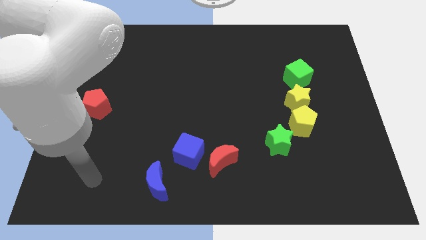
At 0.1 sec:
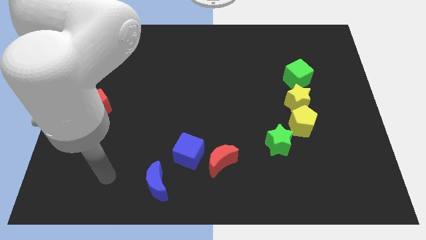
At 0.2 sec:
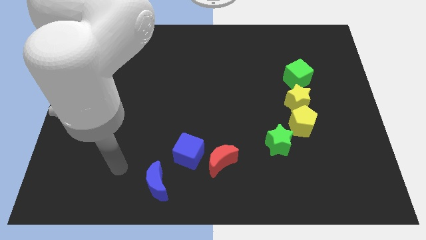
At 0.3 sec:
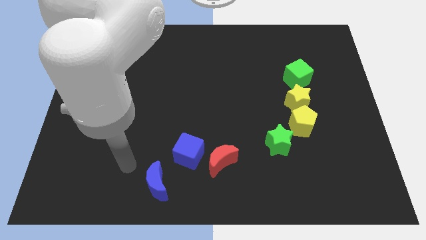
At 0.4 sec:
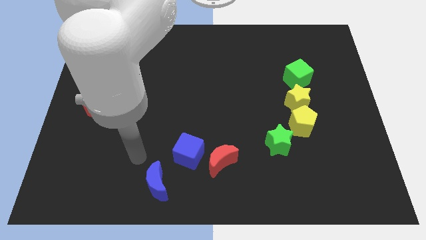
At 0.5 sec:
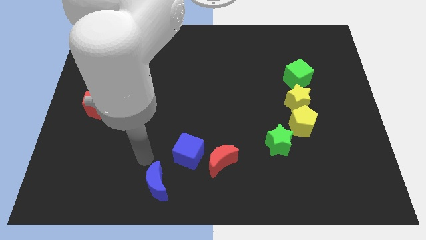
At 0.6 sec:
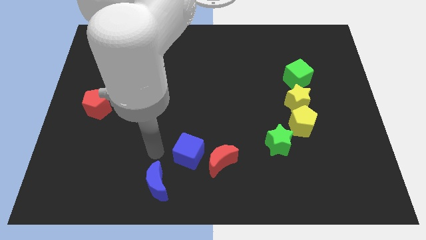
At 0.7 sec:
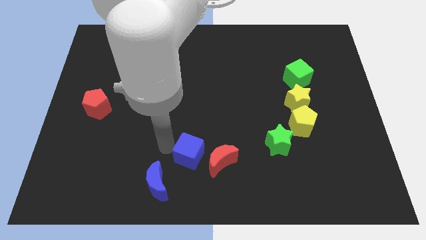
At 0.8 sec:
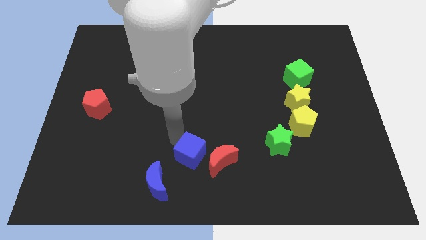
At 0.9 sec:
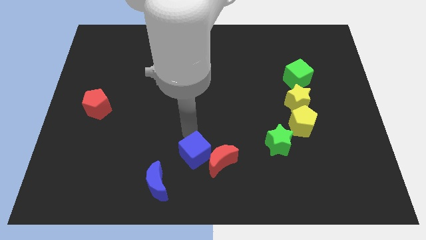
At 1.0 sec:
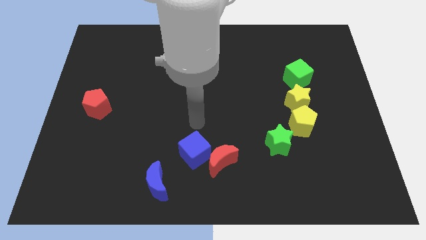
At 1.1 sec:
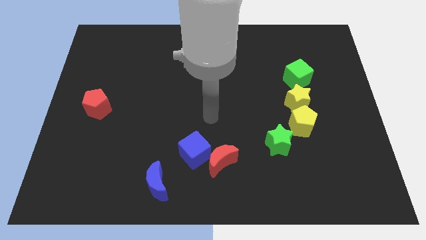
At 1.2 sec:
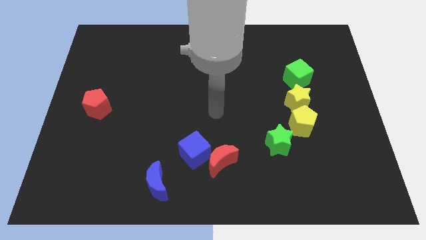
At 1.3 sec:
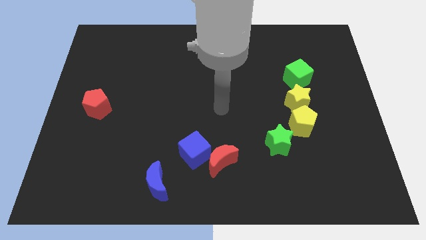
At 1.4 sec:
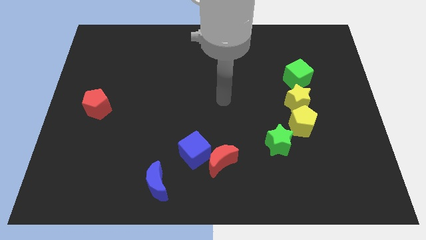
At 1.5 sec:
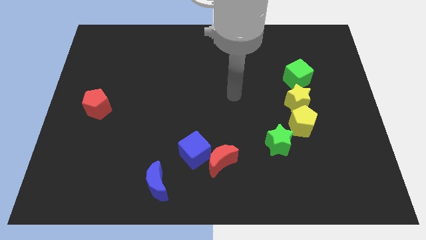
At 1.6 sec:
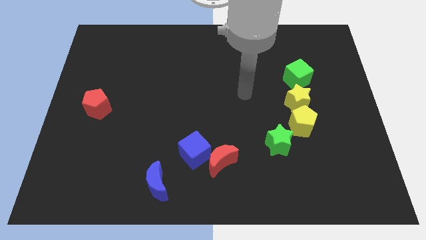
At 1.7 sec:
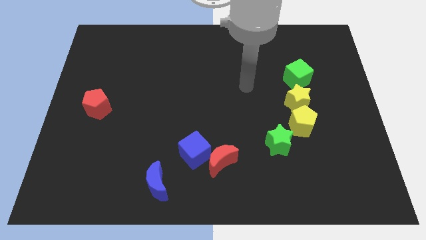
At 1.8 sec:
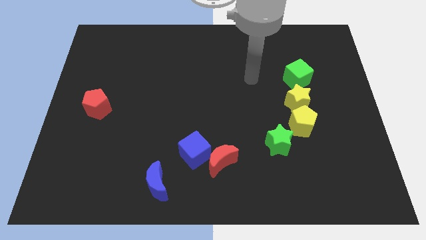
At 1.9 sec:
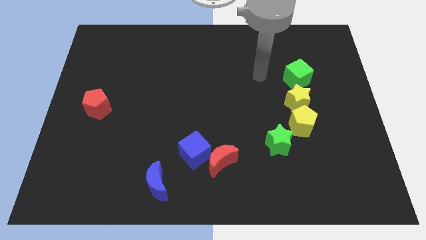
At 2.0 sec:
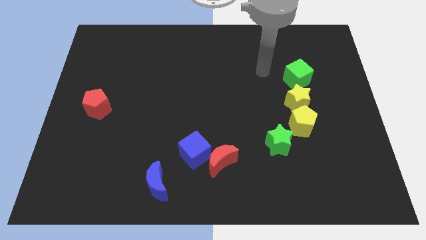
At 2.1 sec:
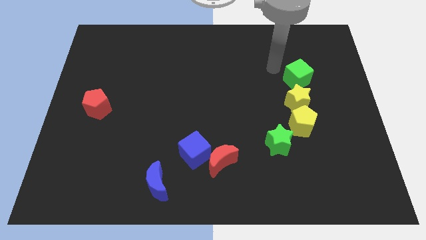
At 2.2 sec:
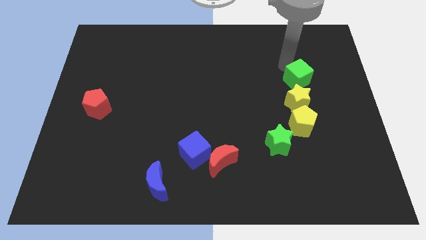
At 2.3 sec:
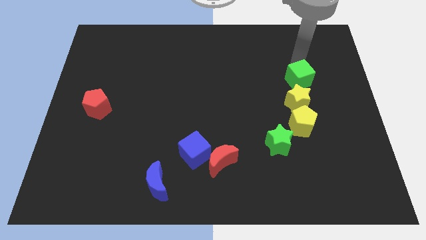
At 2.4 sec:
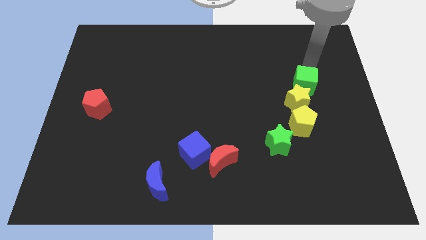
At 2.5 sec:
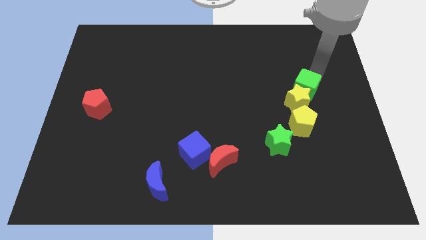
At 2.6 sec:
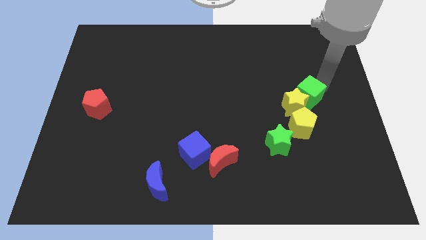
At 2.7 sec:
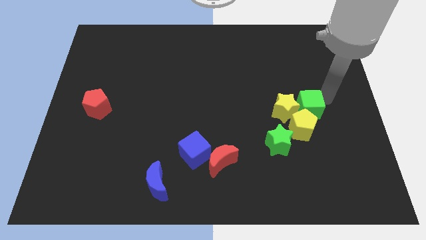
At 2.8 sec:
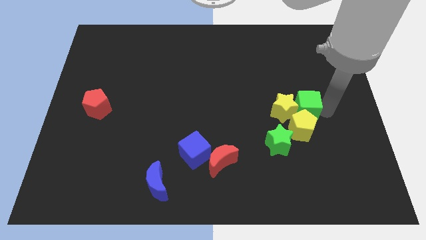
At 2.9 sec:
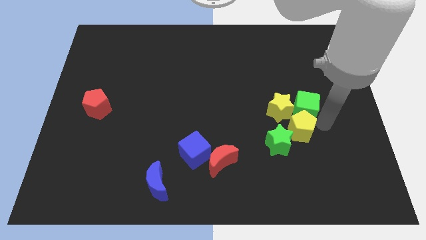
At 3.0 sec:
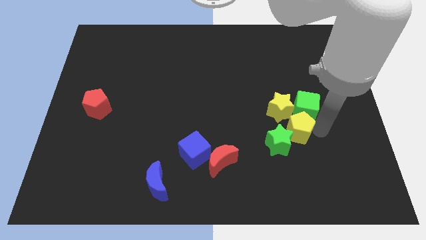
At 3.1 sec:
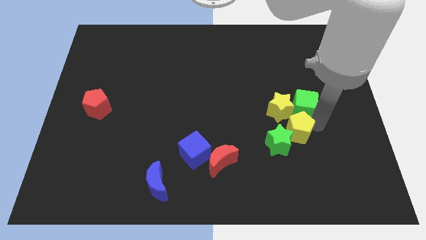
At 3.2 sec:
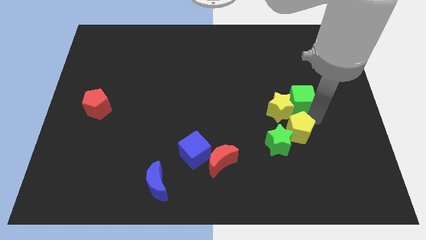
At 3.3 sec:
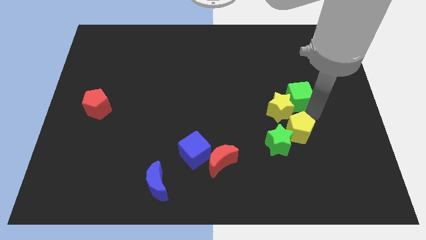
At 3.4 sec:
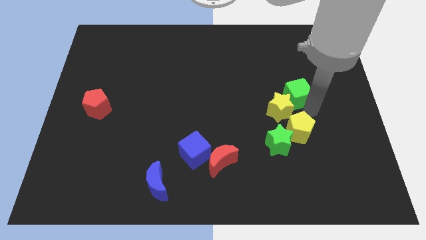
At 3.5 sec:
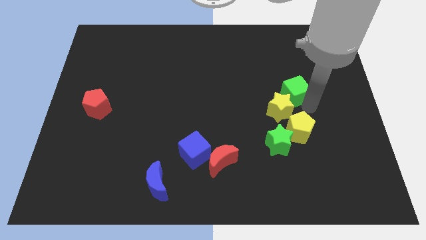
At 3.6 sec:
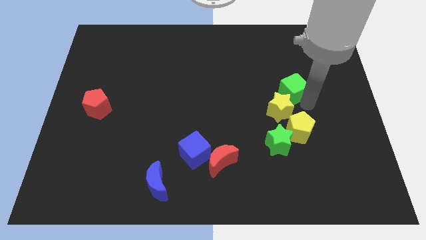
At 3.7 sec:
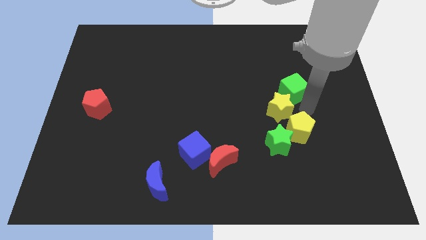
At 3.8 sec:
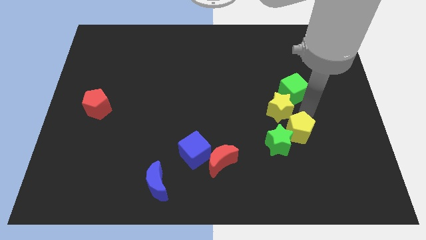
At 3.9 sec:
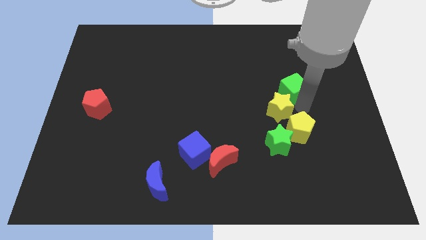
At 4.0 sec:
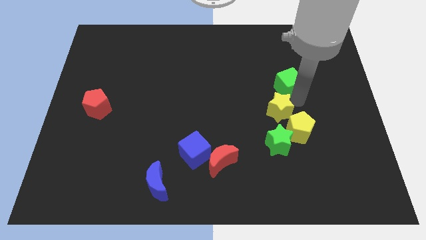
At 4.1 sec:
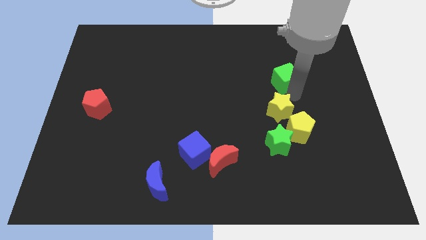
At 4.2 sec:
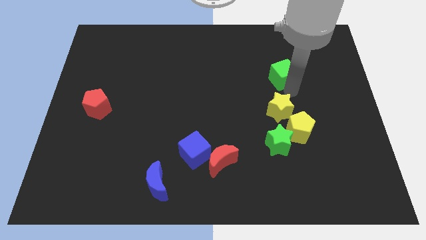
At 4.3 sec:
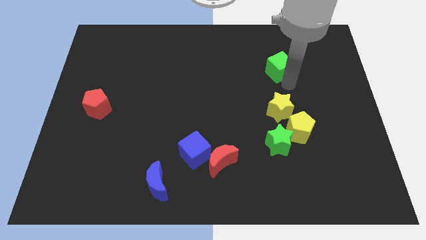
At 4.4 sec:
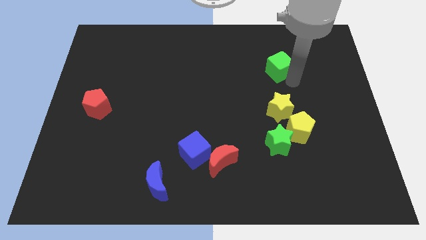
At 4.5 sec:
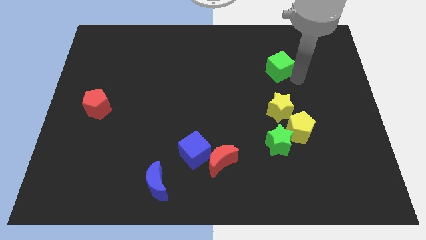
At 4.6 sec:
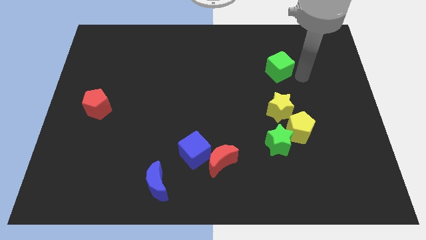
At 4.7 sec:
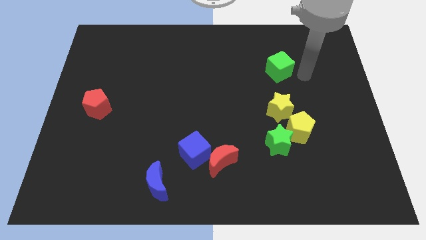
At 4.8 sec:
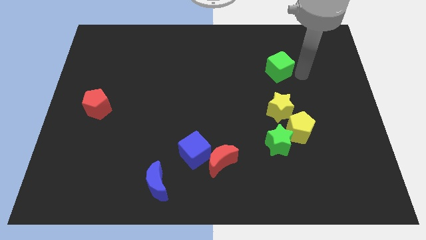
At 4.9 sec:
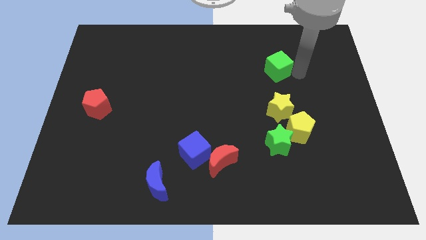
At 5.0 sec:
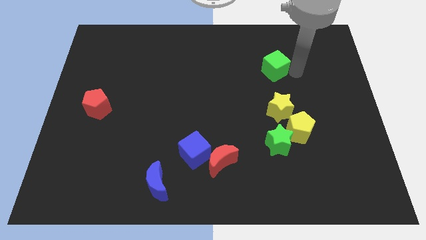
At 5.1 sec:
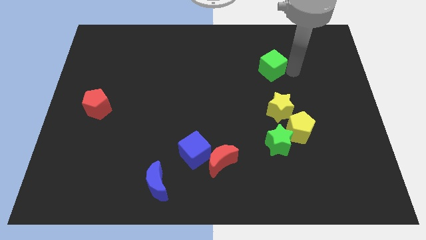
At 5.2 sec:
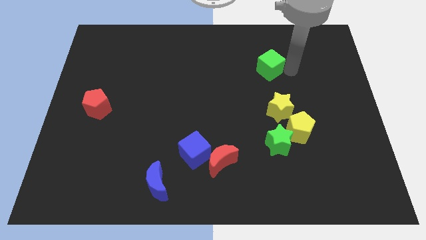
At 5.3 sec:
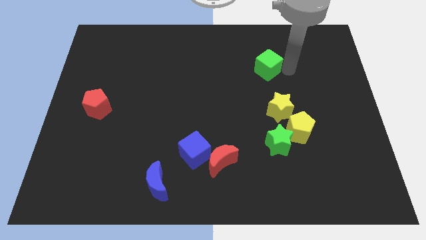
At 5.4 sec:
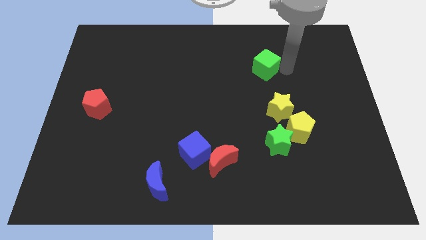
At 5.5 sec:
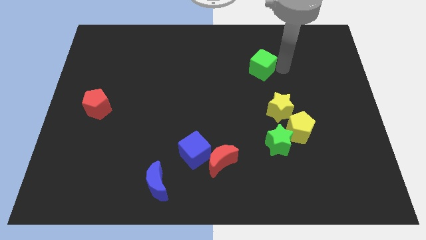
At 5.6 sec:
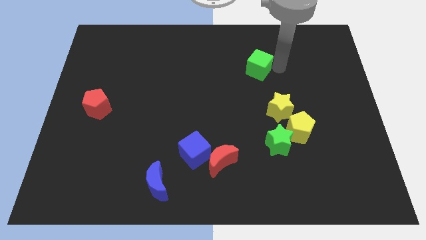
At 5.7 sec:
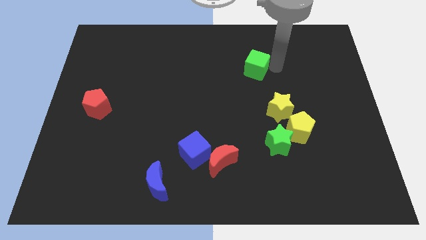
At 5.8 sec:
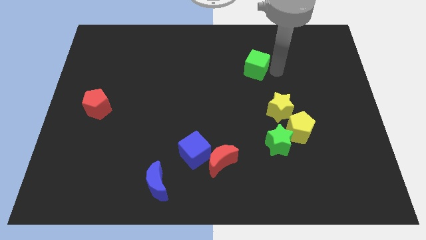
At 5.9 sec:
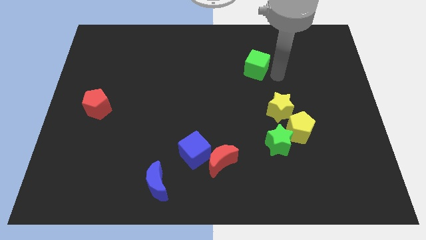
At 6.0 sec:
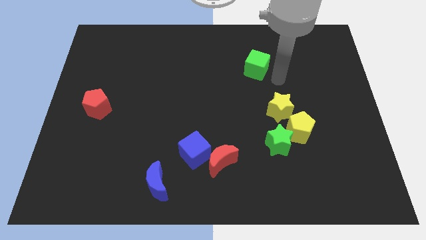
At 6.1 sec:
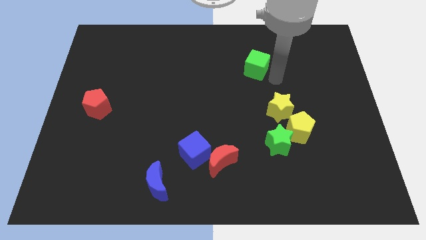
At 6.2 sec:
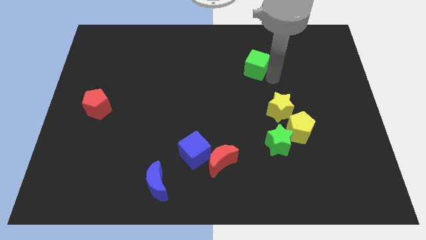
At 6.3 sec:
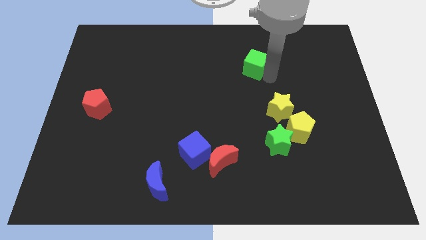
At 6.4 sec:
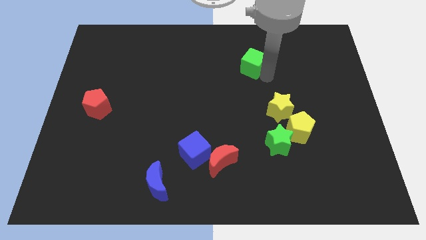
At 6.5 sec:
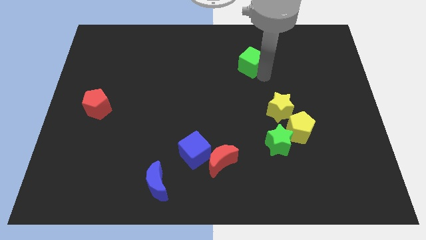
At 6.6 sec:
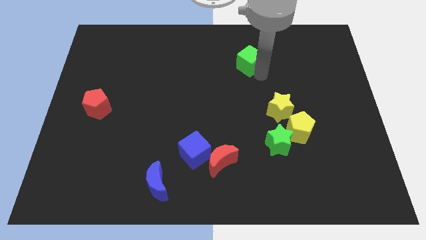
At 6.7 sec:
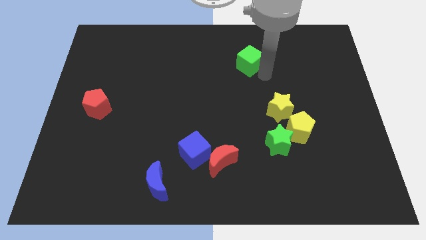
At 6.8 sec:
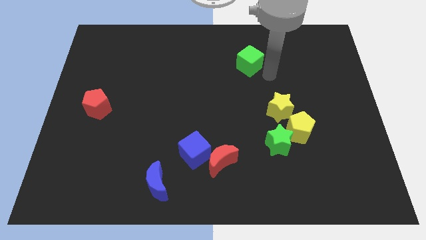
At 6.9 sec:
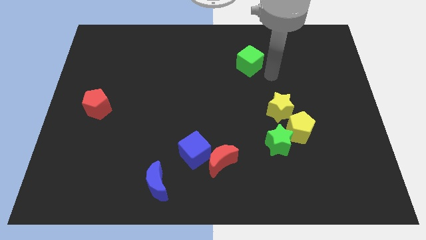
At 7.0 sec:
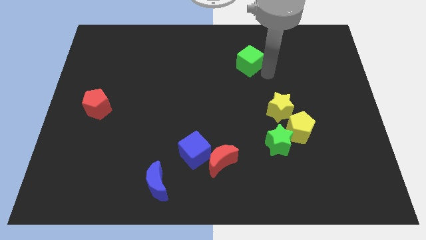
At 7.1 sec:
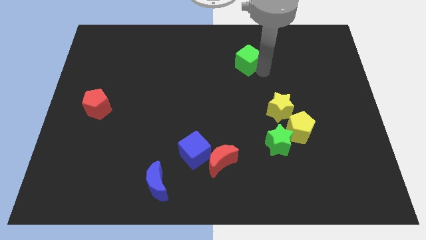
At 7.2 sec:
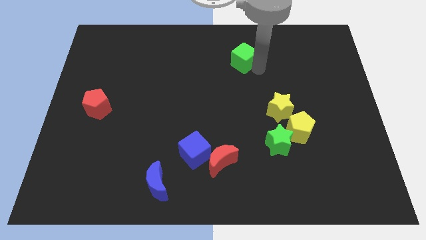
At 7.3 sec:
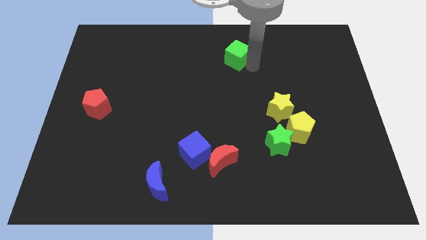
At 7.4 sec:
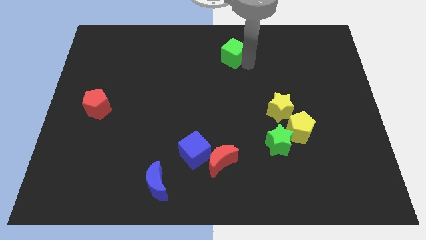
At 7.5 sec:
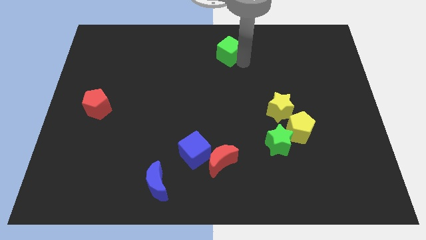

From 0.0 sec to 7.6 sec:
push the green cube to the top side
